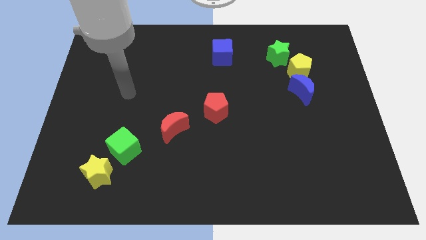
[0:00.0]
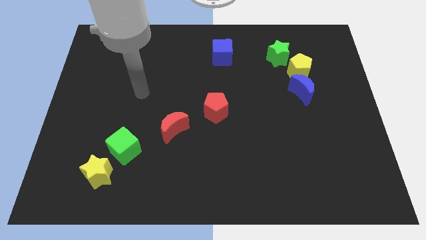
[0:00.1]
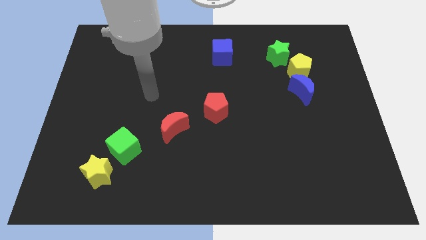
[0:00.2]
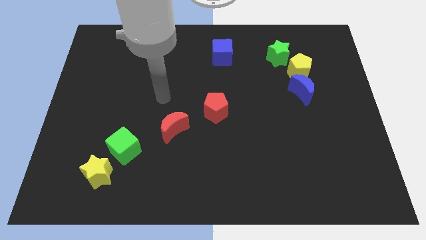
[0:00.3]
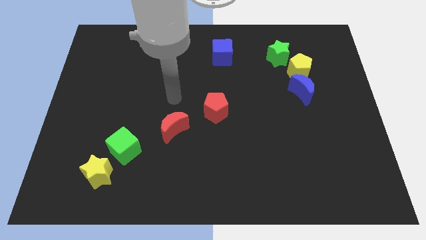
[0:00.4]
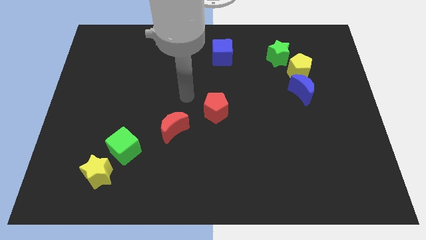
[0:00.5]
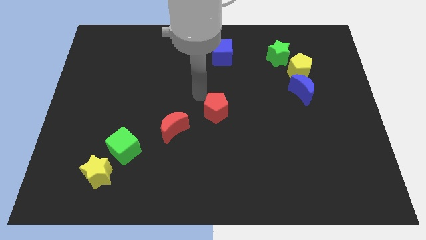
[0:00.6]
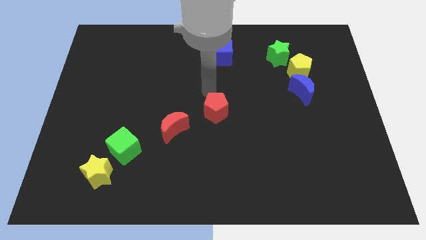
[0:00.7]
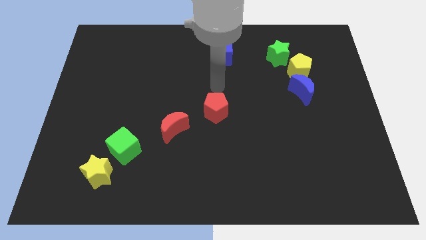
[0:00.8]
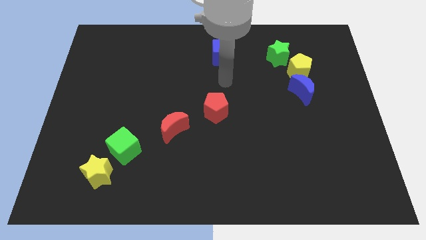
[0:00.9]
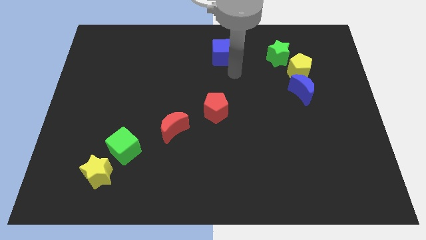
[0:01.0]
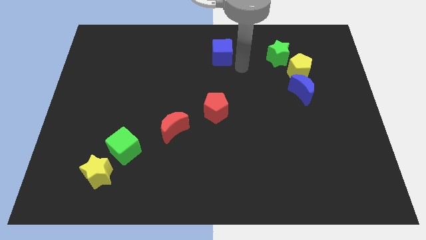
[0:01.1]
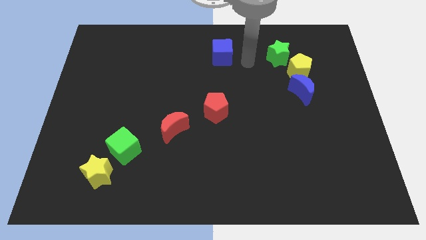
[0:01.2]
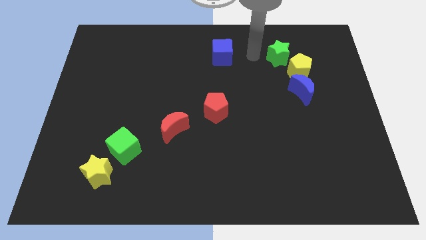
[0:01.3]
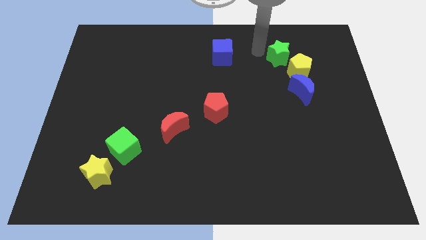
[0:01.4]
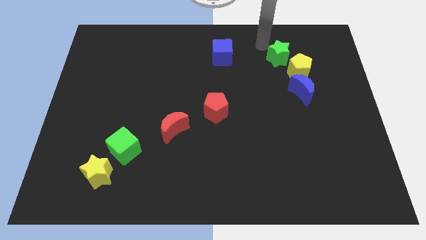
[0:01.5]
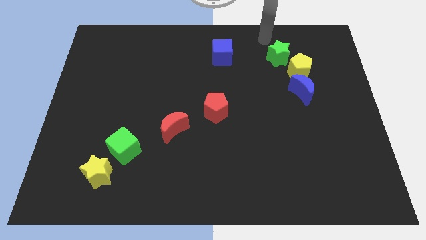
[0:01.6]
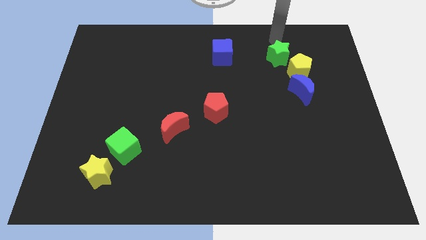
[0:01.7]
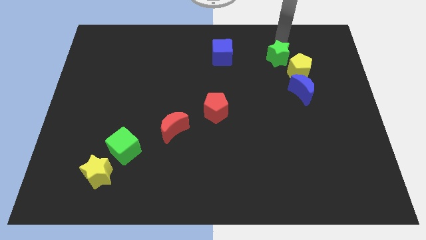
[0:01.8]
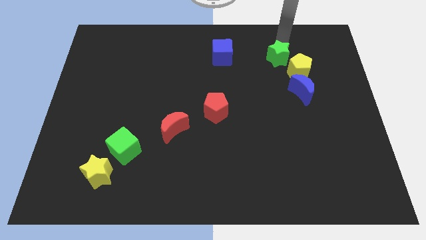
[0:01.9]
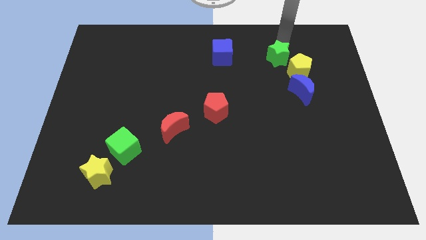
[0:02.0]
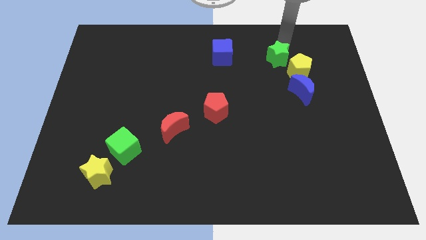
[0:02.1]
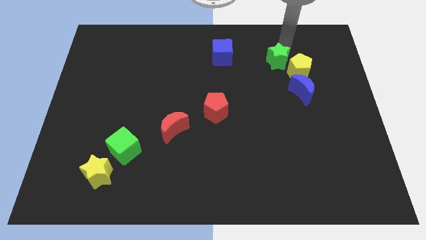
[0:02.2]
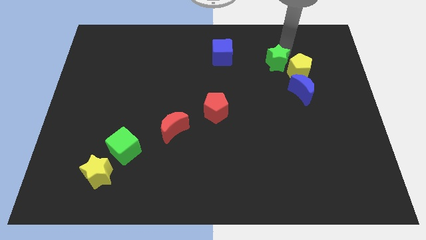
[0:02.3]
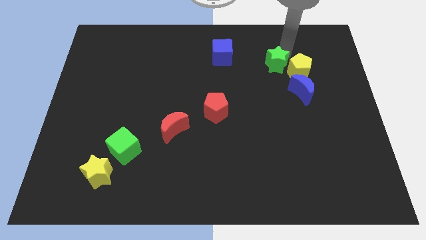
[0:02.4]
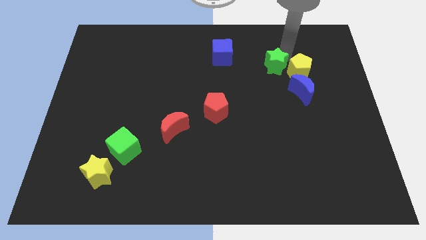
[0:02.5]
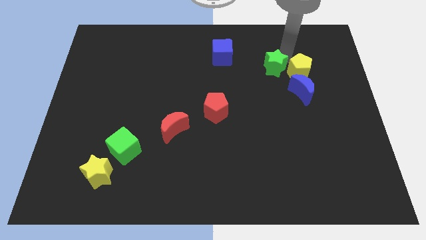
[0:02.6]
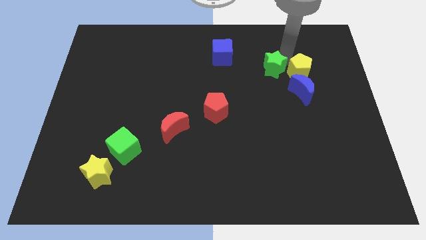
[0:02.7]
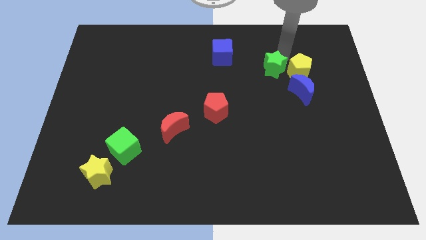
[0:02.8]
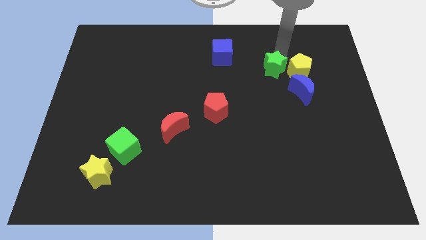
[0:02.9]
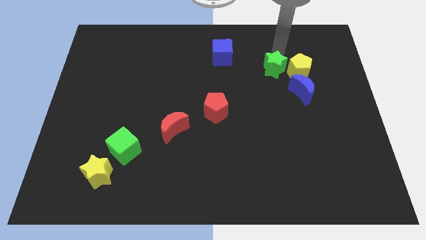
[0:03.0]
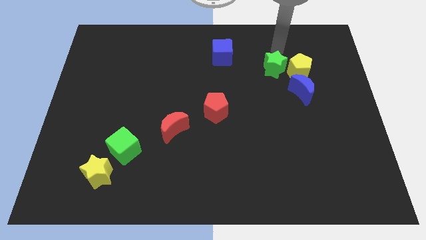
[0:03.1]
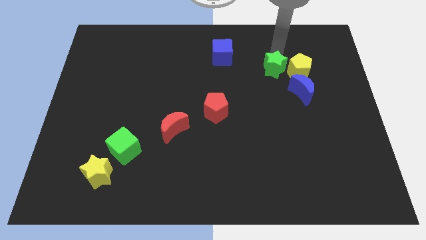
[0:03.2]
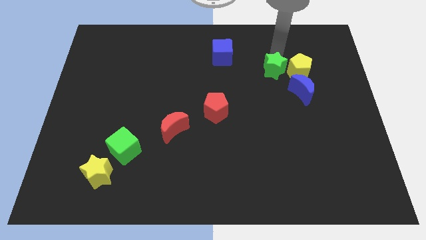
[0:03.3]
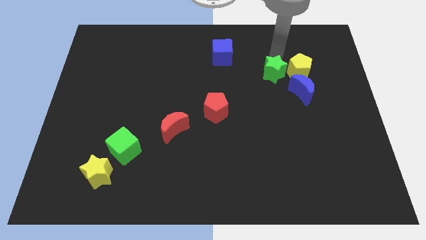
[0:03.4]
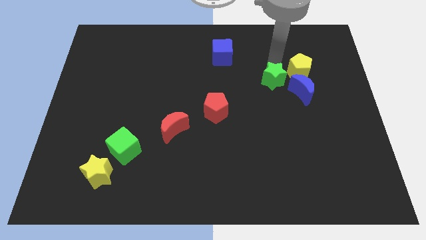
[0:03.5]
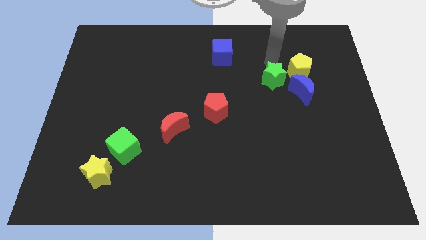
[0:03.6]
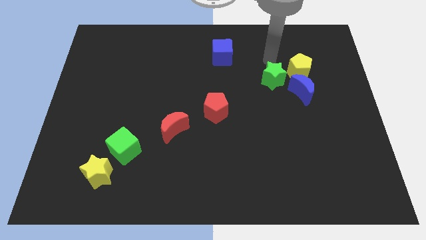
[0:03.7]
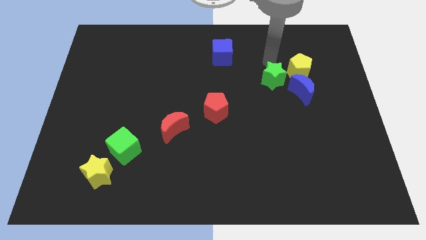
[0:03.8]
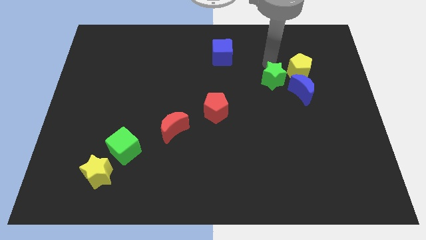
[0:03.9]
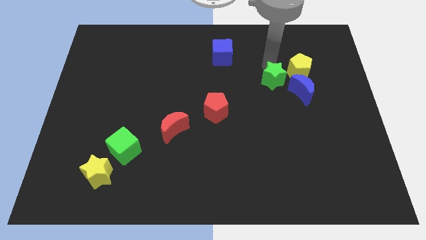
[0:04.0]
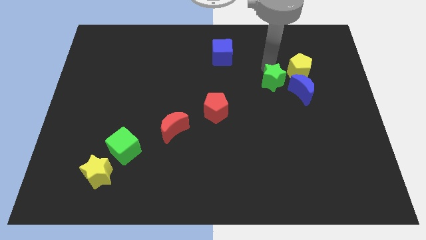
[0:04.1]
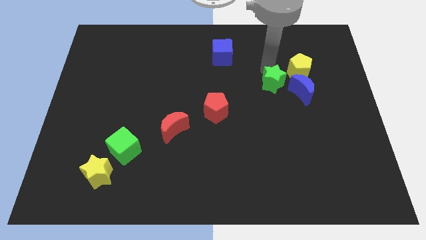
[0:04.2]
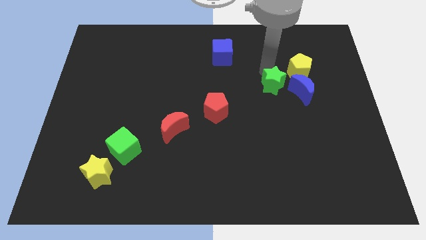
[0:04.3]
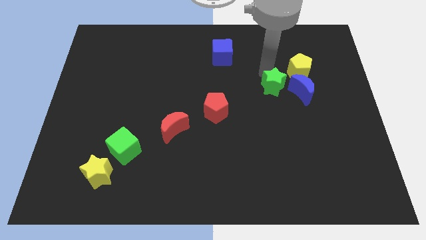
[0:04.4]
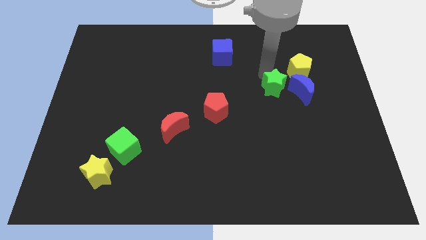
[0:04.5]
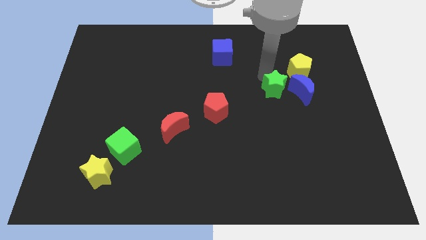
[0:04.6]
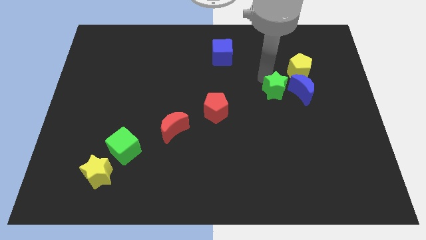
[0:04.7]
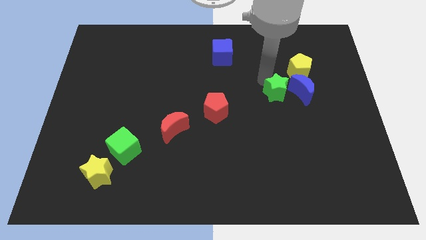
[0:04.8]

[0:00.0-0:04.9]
put the green star to the bottom left of the blue moon

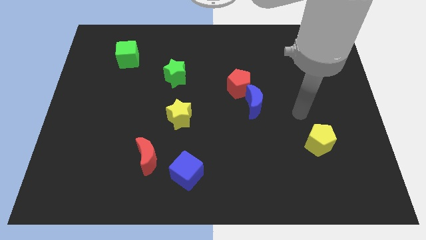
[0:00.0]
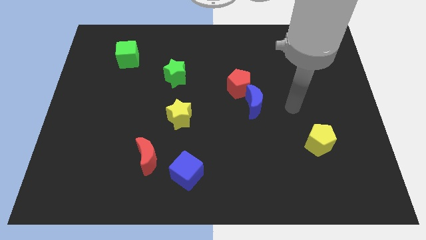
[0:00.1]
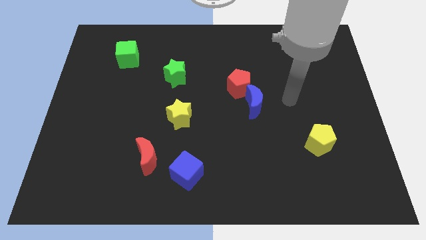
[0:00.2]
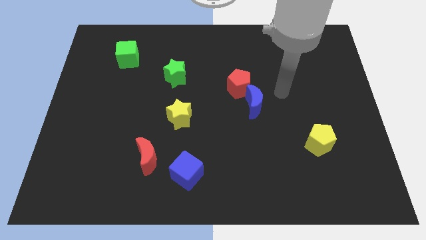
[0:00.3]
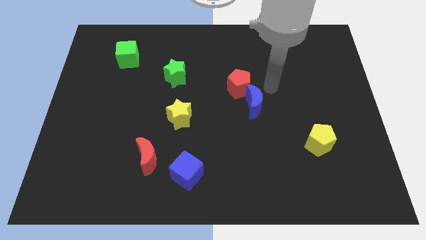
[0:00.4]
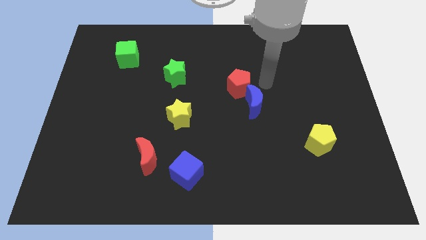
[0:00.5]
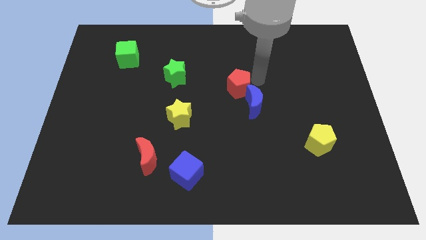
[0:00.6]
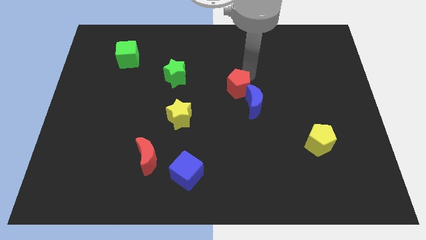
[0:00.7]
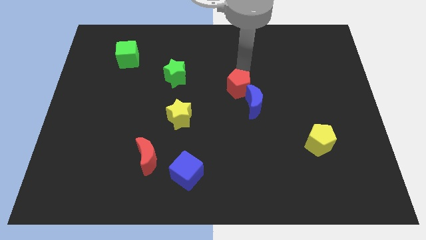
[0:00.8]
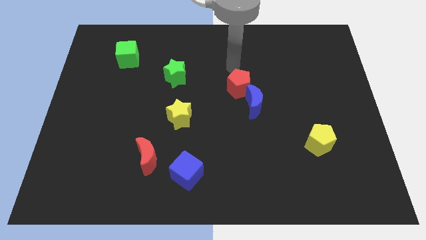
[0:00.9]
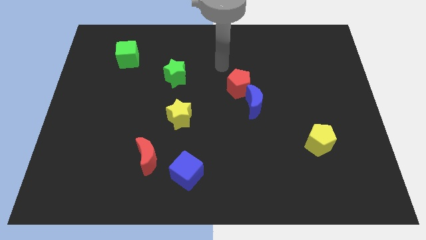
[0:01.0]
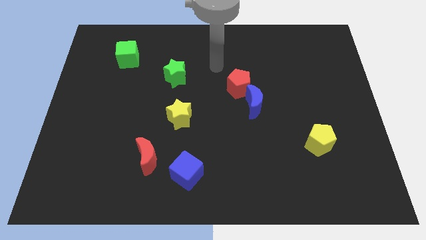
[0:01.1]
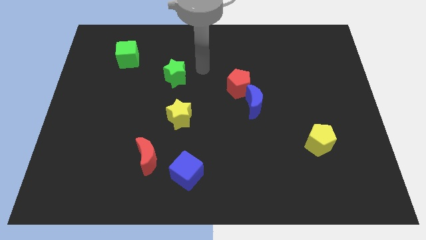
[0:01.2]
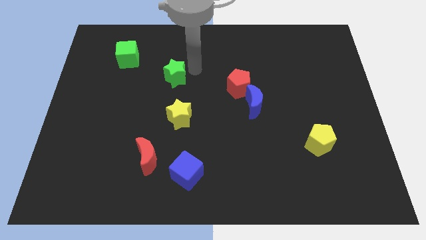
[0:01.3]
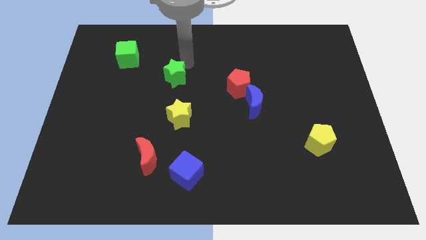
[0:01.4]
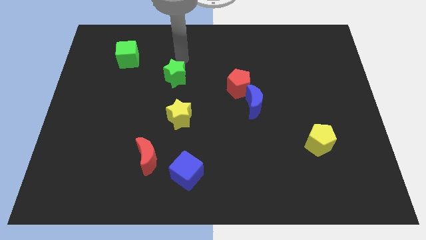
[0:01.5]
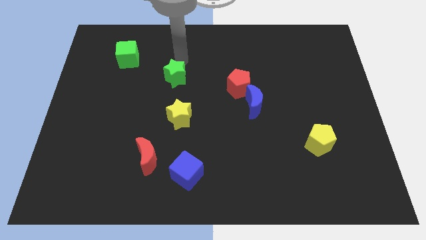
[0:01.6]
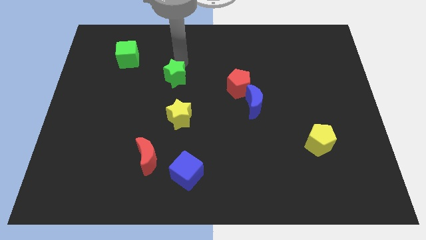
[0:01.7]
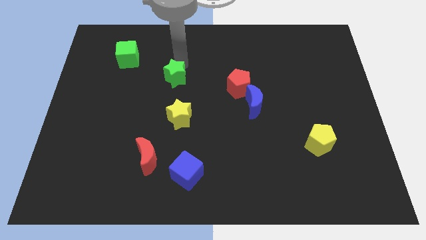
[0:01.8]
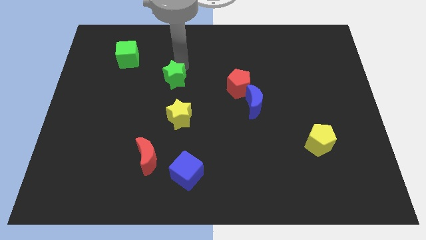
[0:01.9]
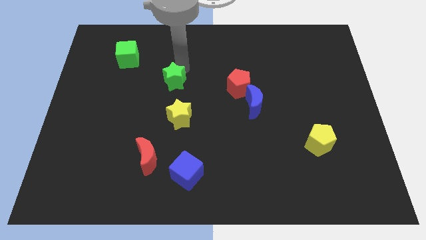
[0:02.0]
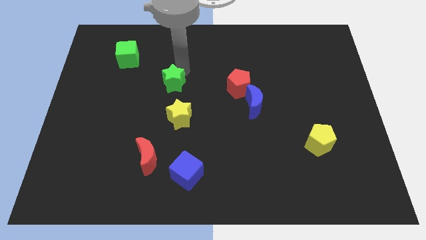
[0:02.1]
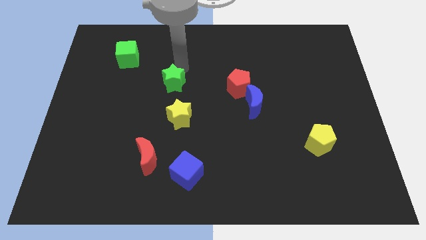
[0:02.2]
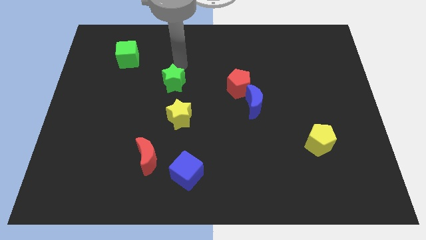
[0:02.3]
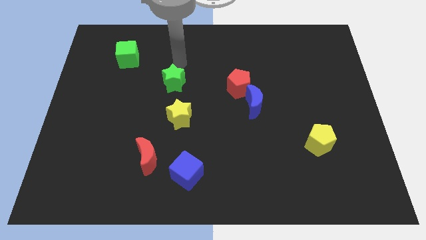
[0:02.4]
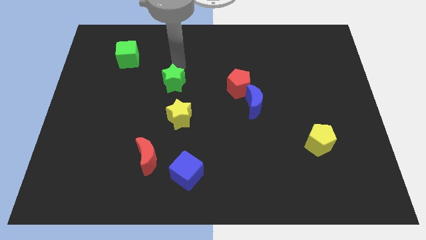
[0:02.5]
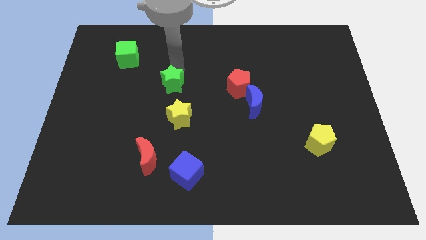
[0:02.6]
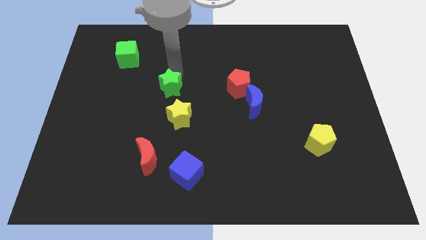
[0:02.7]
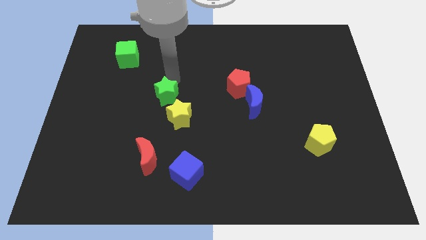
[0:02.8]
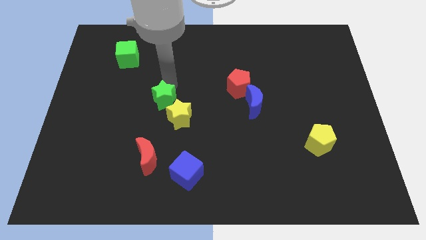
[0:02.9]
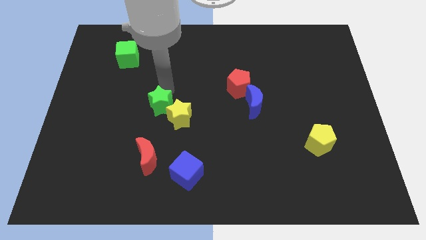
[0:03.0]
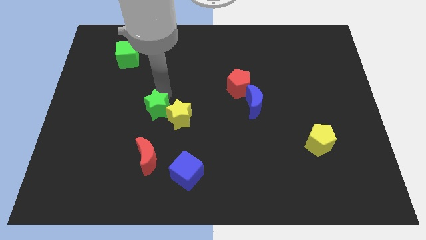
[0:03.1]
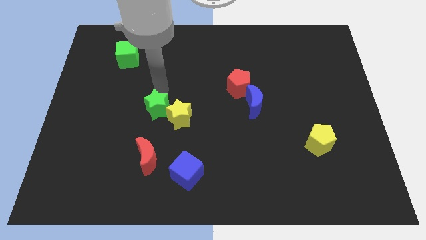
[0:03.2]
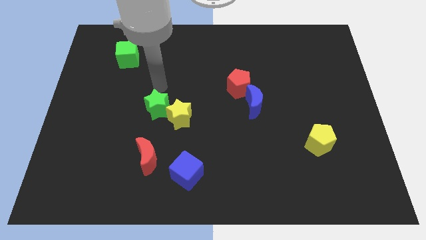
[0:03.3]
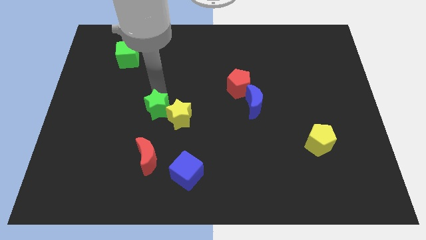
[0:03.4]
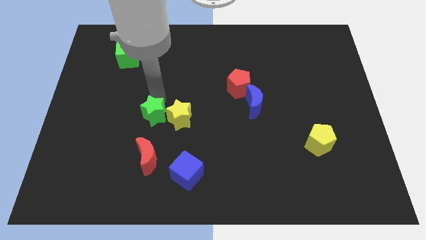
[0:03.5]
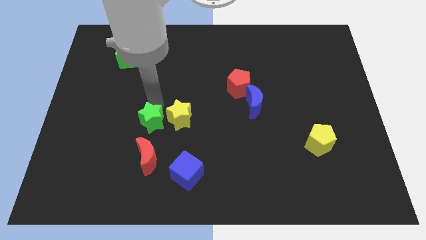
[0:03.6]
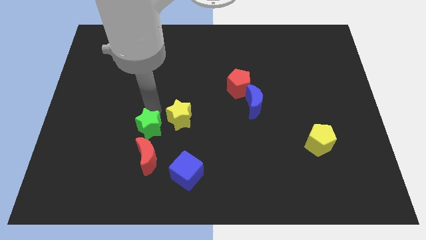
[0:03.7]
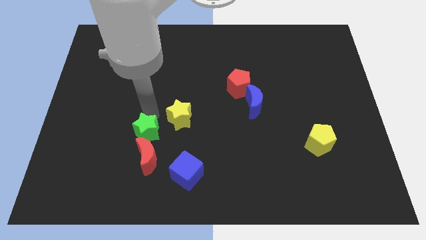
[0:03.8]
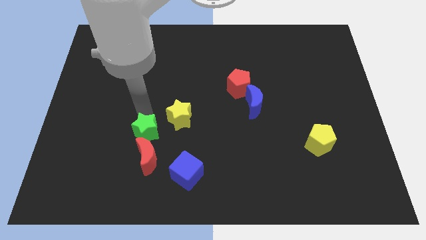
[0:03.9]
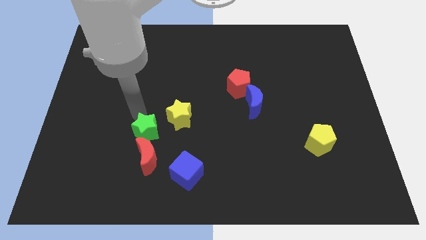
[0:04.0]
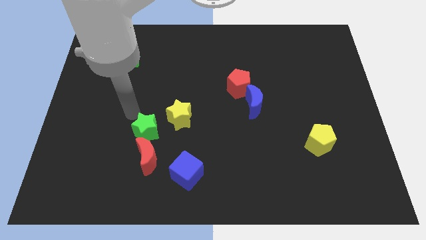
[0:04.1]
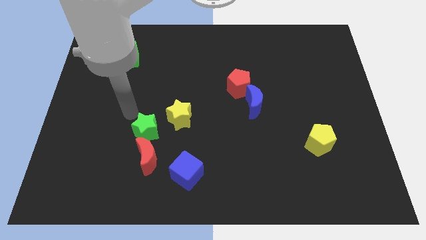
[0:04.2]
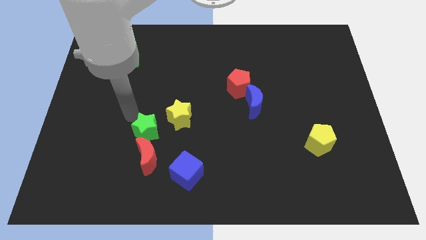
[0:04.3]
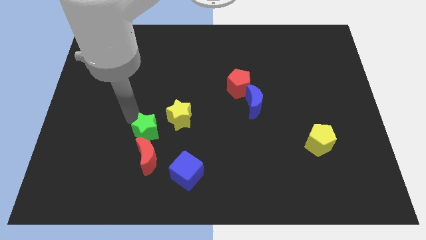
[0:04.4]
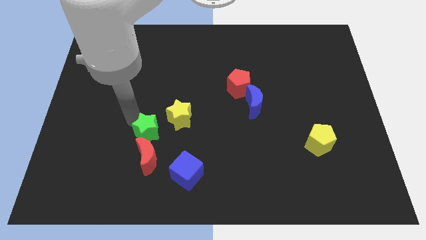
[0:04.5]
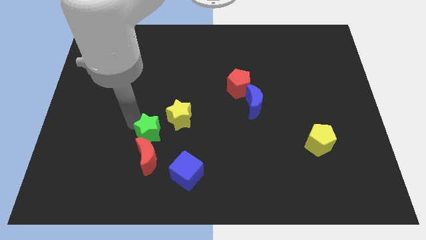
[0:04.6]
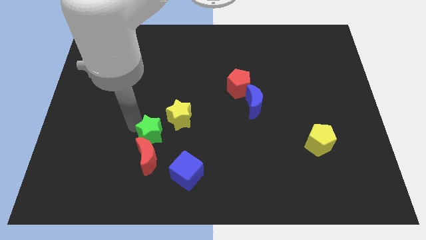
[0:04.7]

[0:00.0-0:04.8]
push the green star to the top left side of the blue cube
